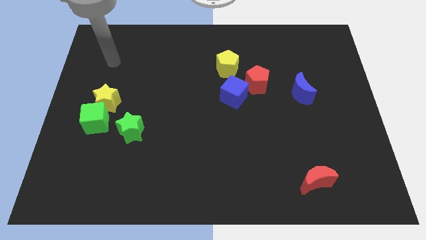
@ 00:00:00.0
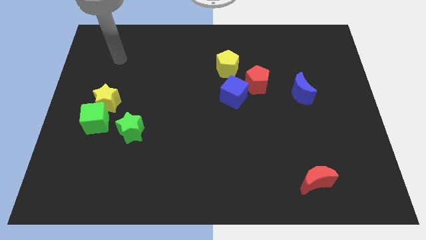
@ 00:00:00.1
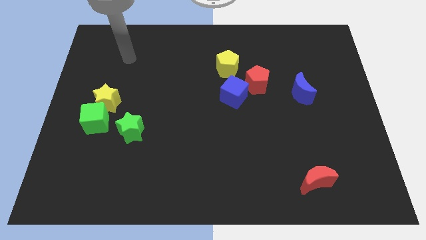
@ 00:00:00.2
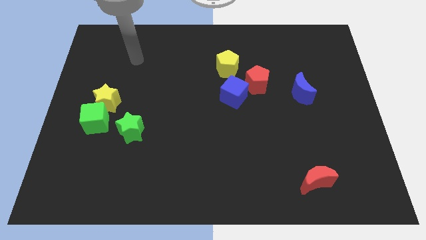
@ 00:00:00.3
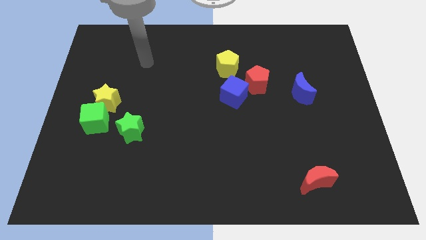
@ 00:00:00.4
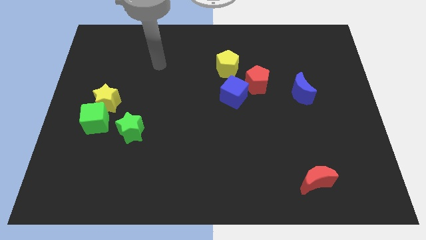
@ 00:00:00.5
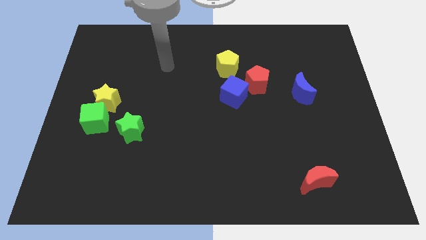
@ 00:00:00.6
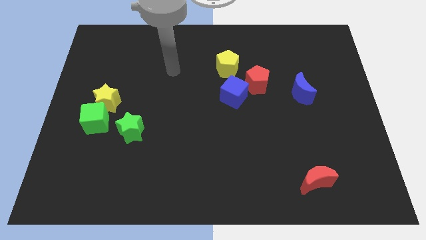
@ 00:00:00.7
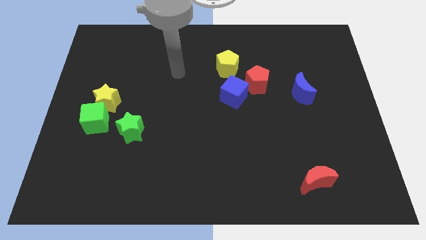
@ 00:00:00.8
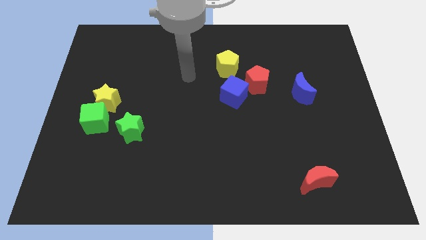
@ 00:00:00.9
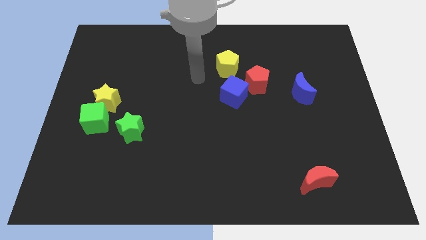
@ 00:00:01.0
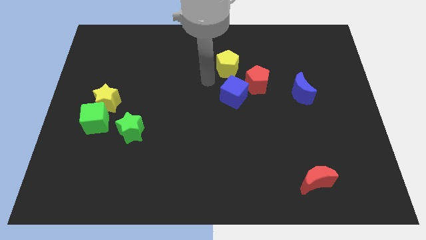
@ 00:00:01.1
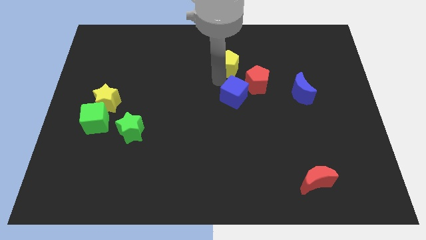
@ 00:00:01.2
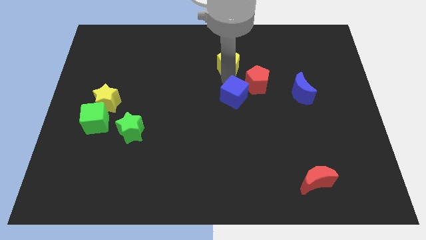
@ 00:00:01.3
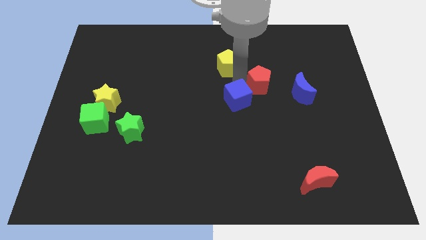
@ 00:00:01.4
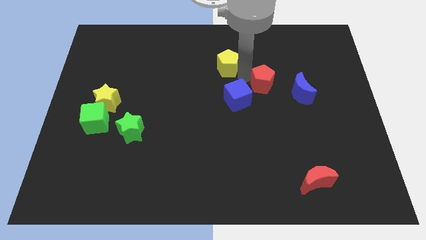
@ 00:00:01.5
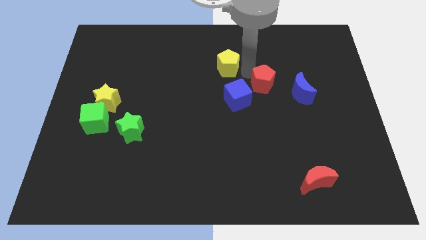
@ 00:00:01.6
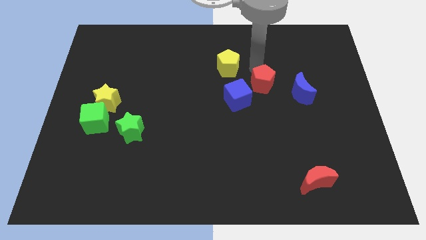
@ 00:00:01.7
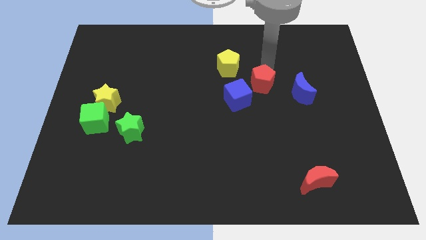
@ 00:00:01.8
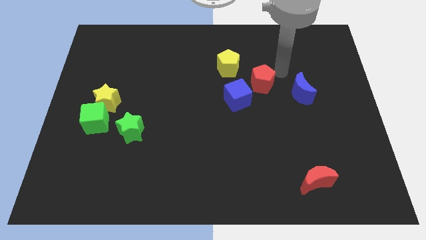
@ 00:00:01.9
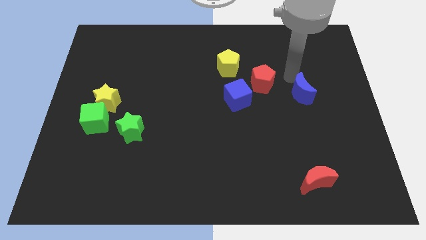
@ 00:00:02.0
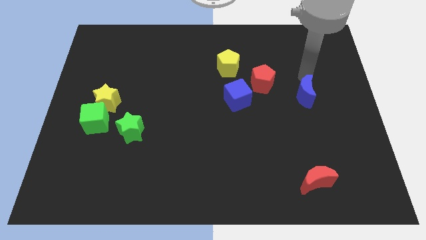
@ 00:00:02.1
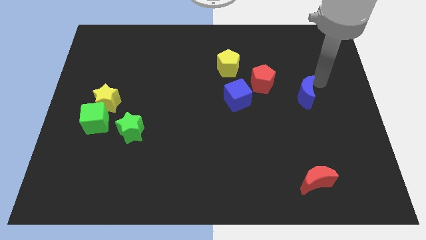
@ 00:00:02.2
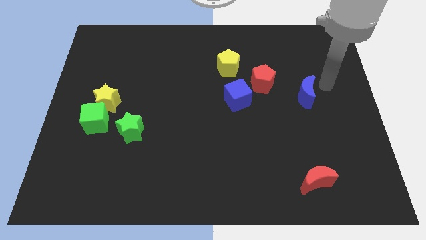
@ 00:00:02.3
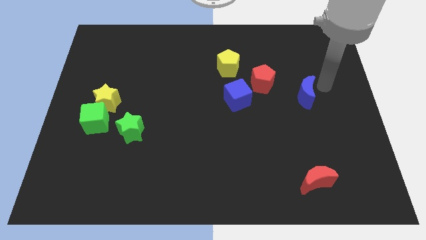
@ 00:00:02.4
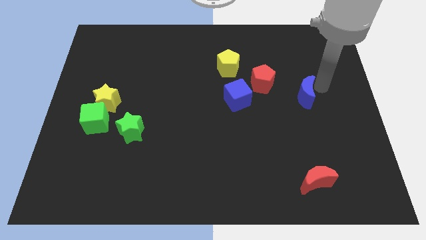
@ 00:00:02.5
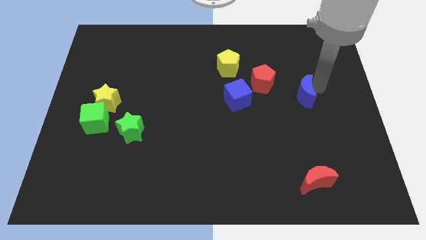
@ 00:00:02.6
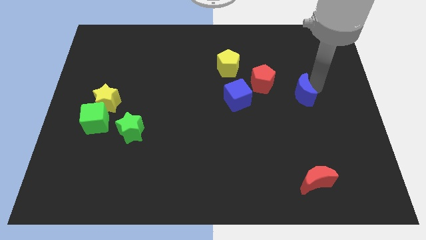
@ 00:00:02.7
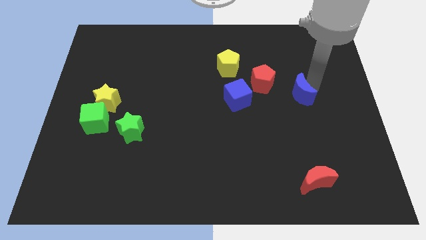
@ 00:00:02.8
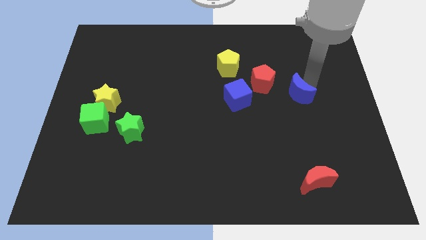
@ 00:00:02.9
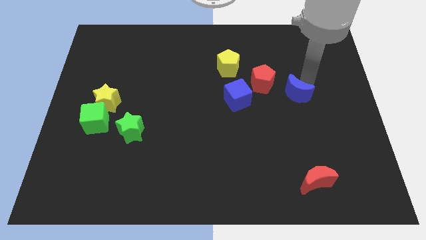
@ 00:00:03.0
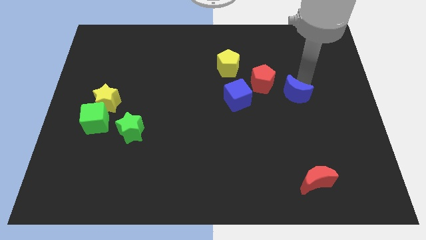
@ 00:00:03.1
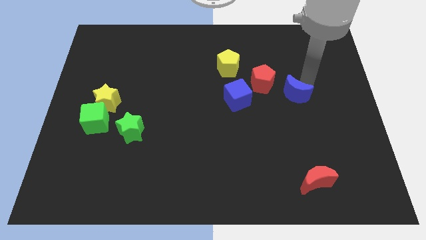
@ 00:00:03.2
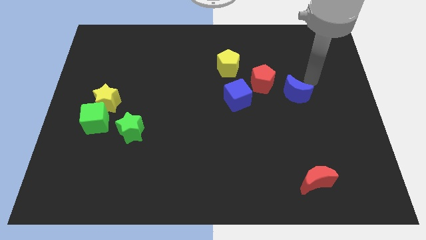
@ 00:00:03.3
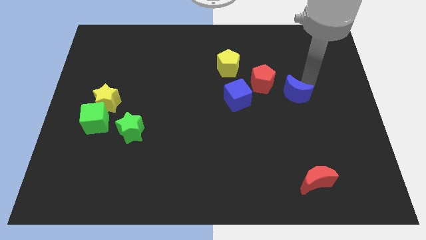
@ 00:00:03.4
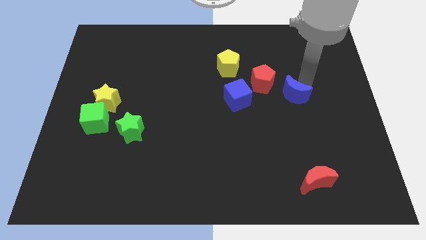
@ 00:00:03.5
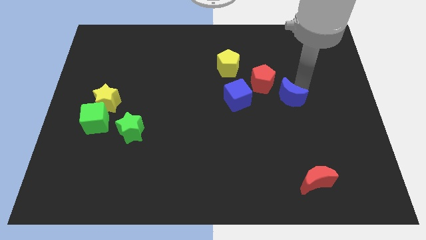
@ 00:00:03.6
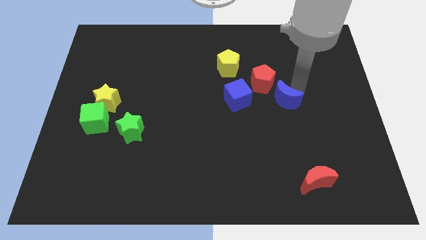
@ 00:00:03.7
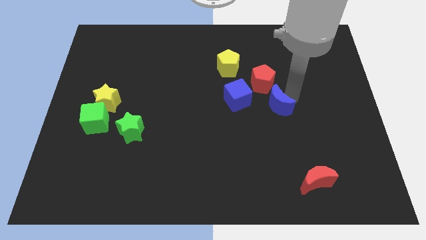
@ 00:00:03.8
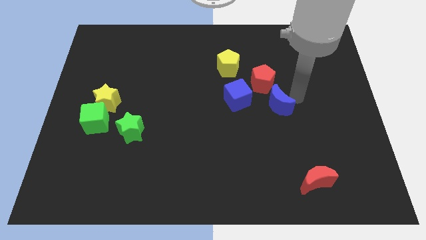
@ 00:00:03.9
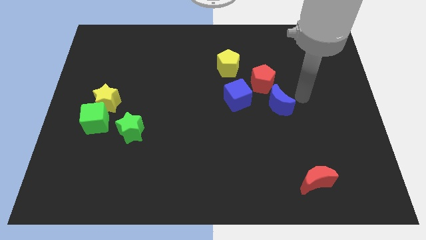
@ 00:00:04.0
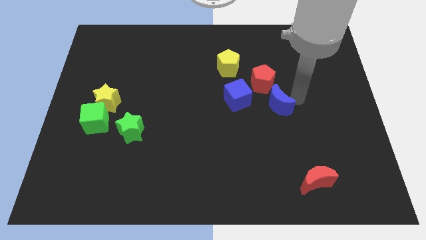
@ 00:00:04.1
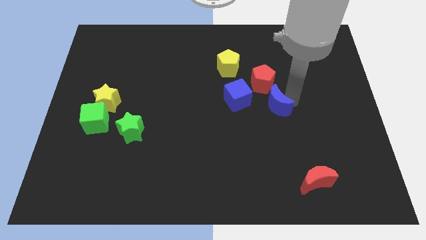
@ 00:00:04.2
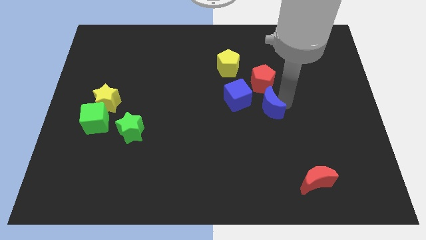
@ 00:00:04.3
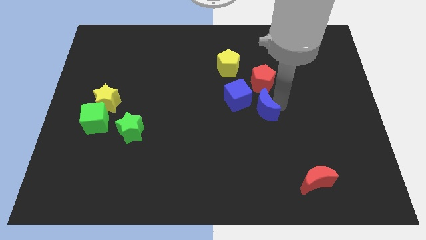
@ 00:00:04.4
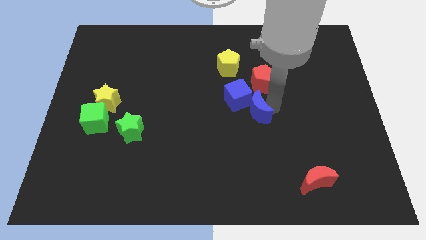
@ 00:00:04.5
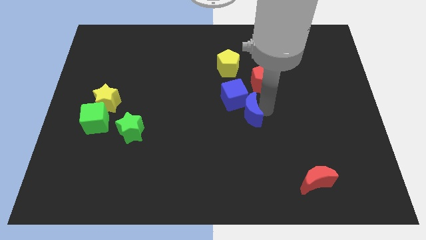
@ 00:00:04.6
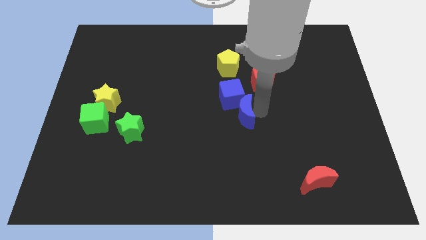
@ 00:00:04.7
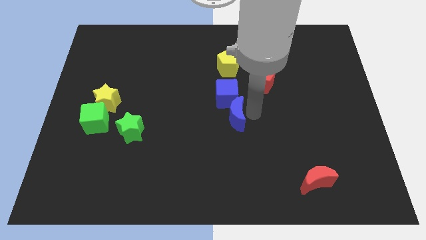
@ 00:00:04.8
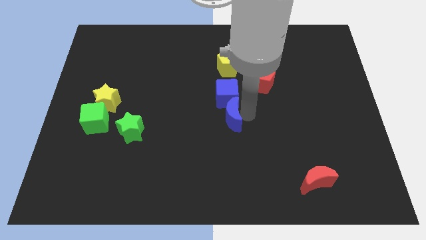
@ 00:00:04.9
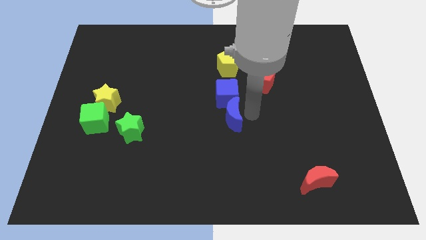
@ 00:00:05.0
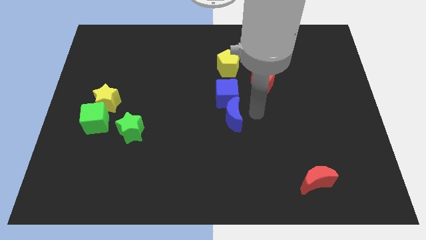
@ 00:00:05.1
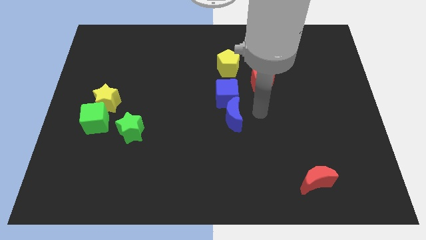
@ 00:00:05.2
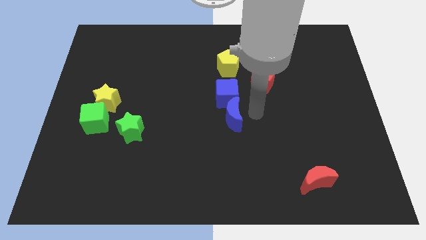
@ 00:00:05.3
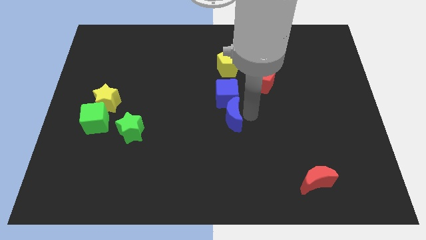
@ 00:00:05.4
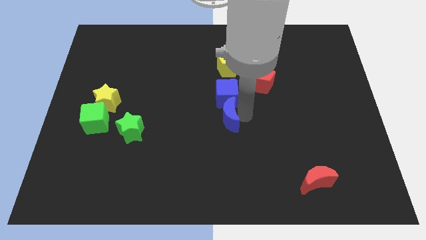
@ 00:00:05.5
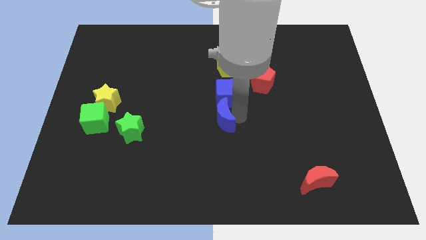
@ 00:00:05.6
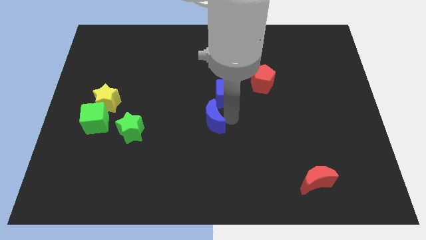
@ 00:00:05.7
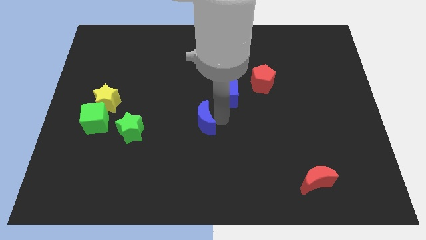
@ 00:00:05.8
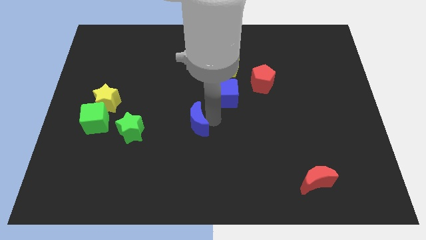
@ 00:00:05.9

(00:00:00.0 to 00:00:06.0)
put the blue moon just right of the green star

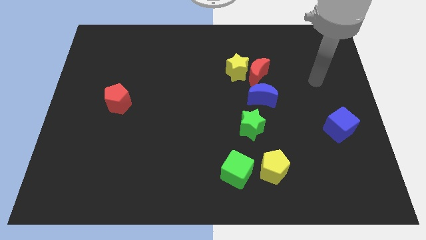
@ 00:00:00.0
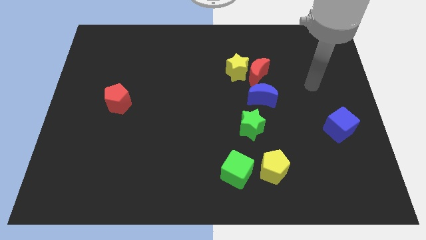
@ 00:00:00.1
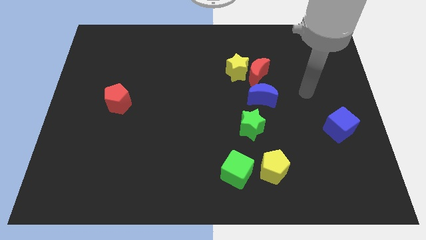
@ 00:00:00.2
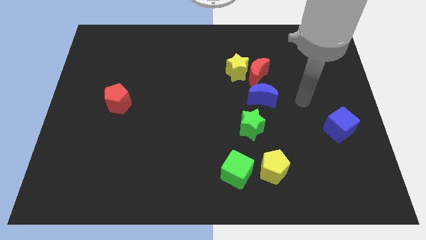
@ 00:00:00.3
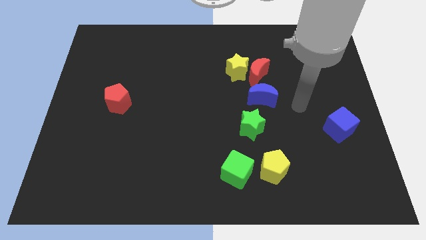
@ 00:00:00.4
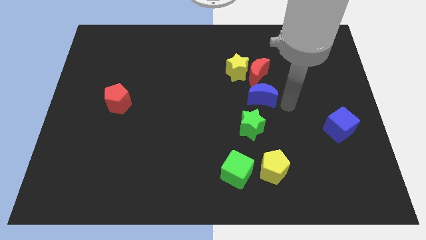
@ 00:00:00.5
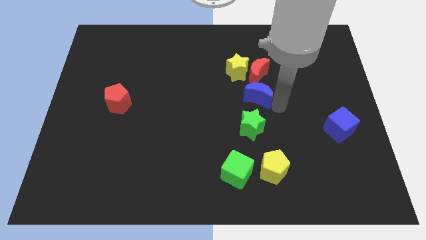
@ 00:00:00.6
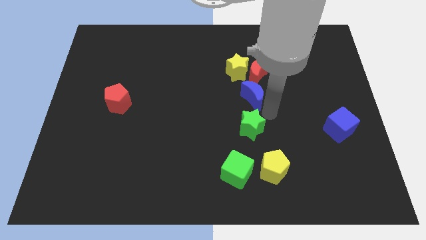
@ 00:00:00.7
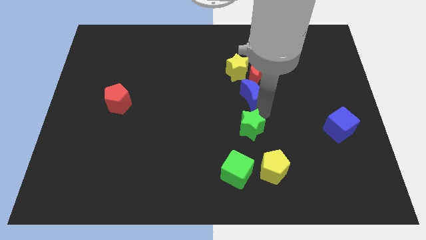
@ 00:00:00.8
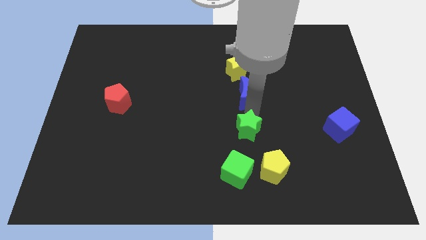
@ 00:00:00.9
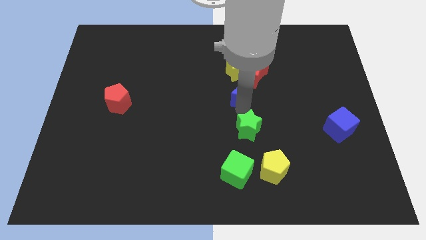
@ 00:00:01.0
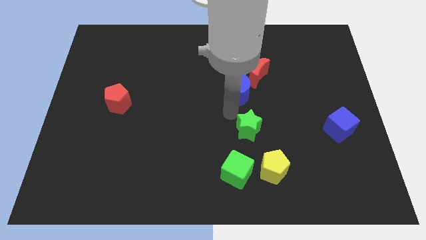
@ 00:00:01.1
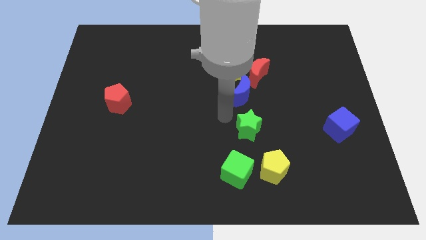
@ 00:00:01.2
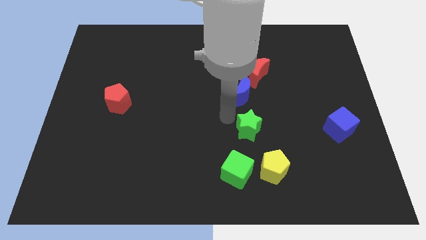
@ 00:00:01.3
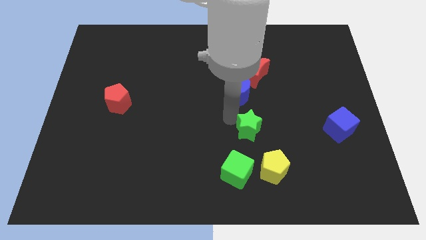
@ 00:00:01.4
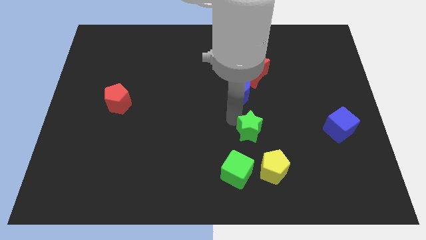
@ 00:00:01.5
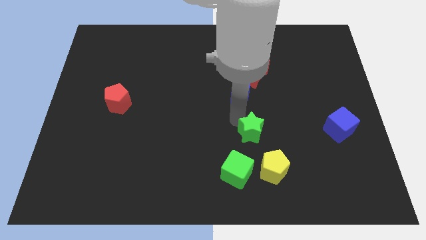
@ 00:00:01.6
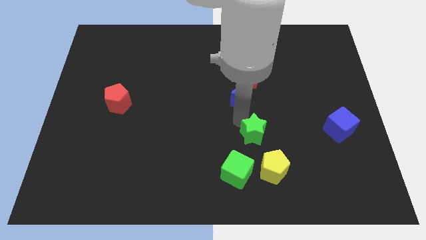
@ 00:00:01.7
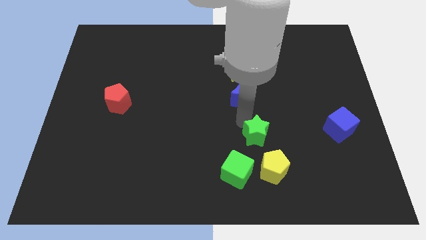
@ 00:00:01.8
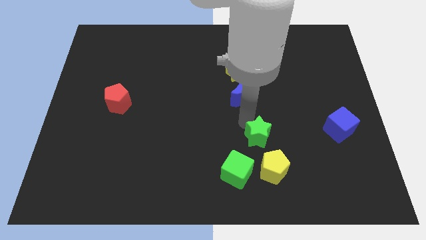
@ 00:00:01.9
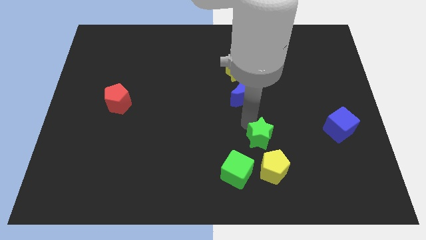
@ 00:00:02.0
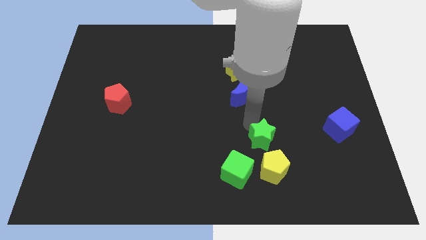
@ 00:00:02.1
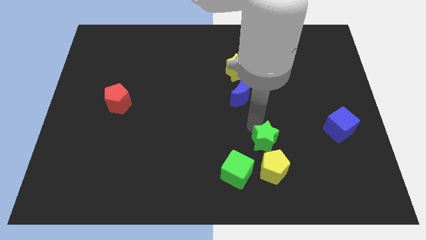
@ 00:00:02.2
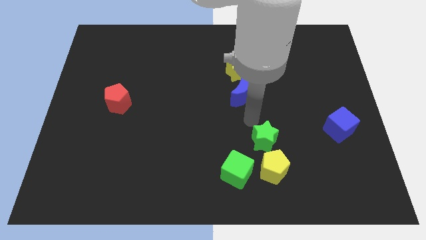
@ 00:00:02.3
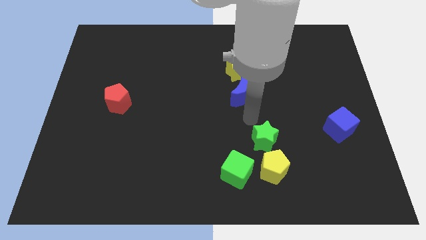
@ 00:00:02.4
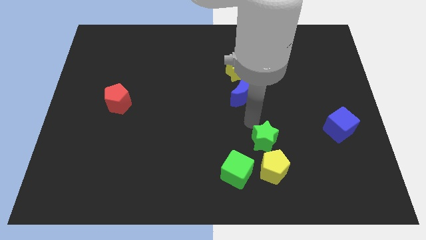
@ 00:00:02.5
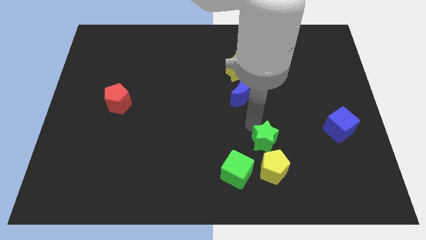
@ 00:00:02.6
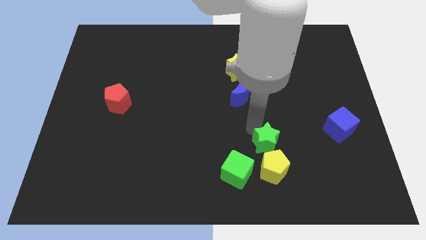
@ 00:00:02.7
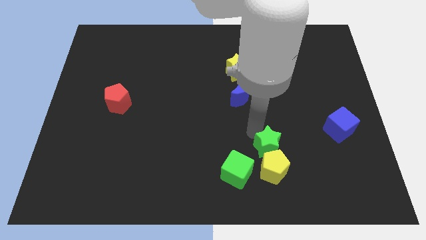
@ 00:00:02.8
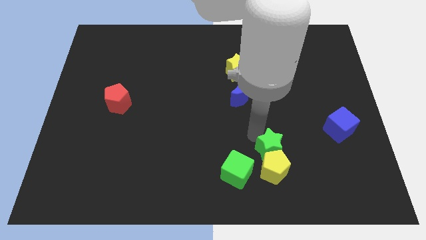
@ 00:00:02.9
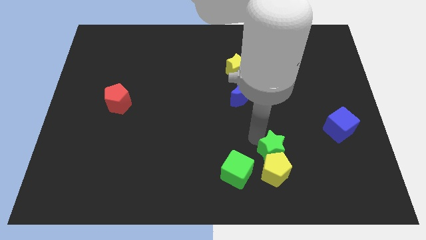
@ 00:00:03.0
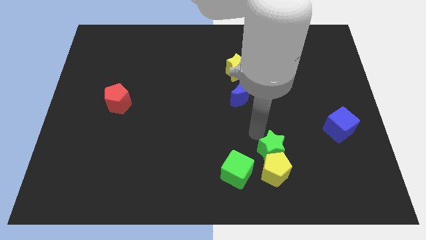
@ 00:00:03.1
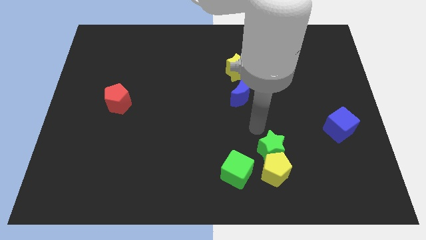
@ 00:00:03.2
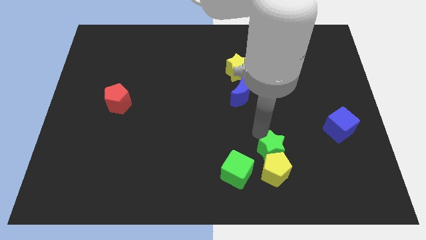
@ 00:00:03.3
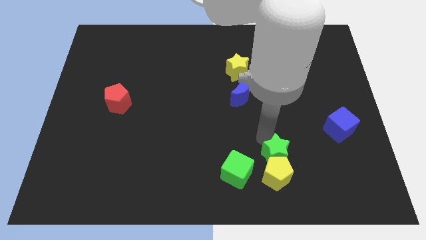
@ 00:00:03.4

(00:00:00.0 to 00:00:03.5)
push the green star just right of the green cube
